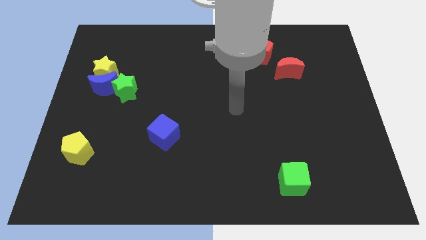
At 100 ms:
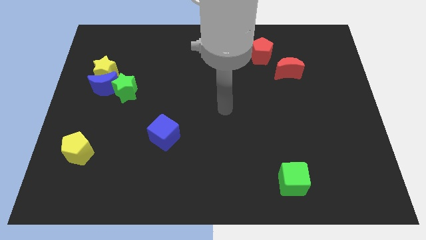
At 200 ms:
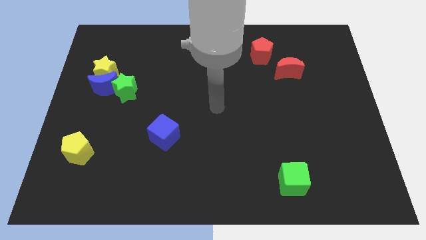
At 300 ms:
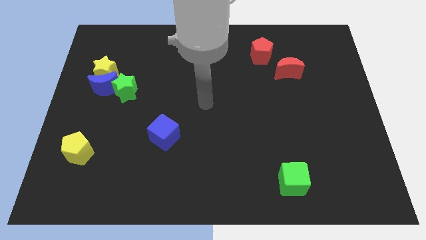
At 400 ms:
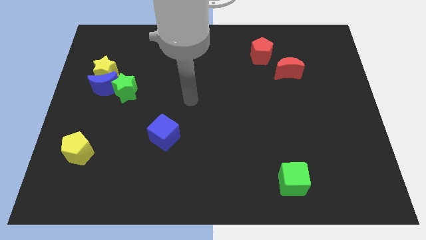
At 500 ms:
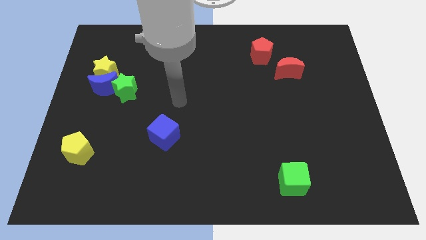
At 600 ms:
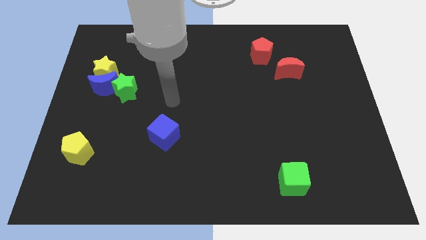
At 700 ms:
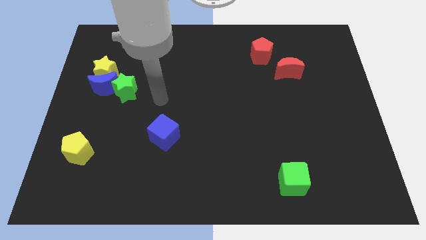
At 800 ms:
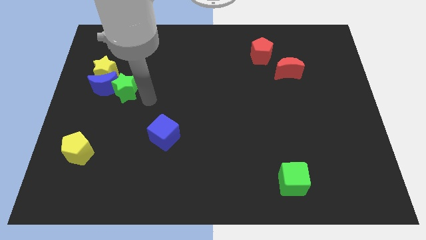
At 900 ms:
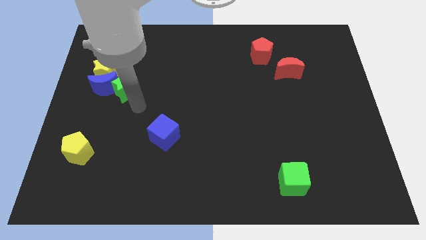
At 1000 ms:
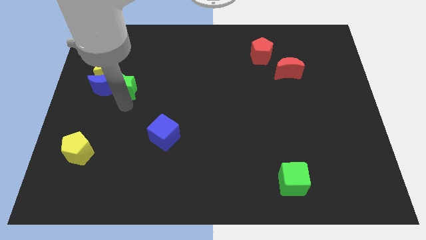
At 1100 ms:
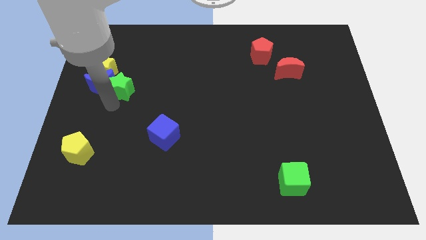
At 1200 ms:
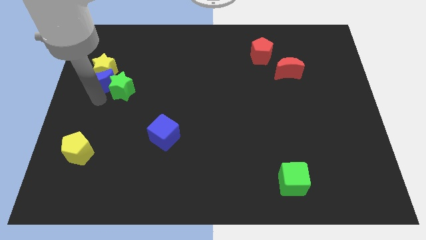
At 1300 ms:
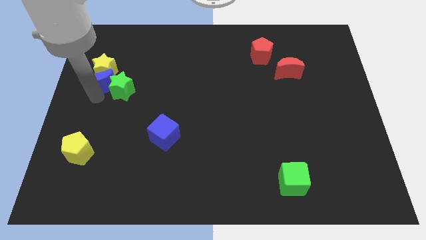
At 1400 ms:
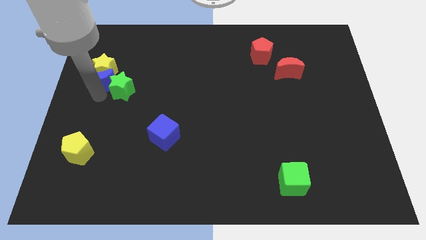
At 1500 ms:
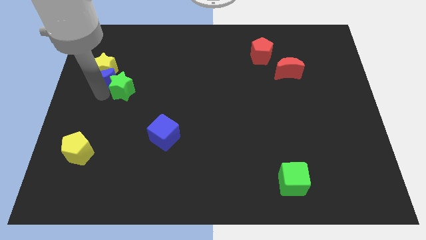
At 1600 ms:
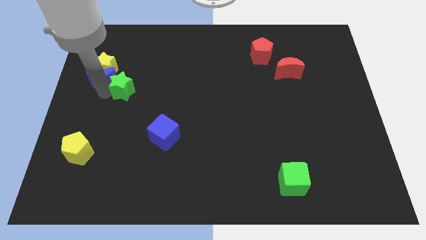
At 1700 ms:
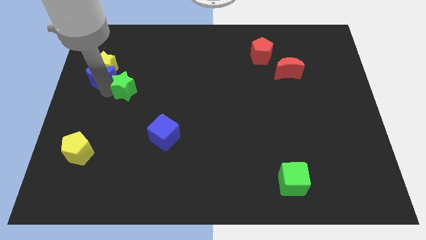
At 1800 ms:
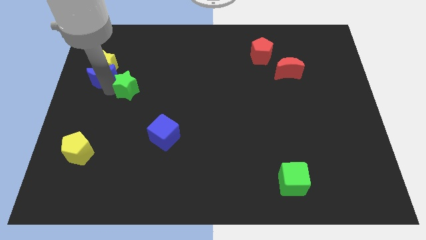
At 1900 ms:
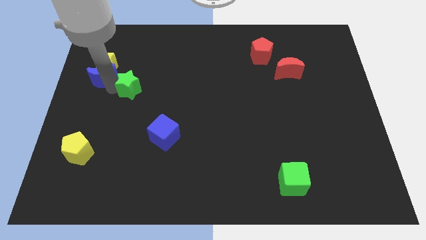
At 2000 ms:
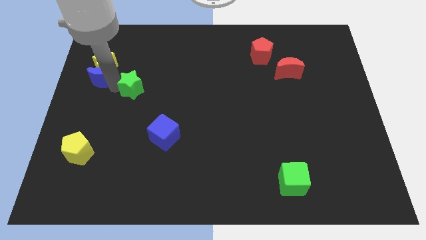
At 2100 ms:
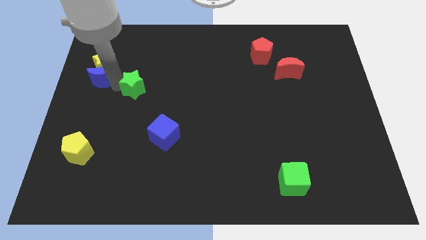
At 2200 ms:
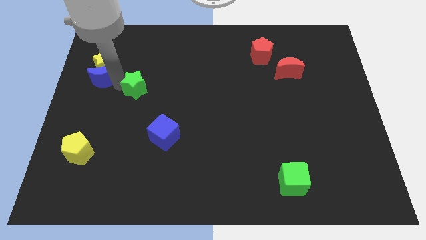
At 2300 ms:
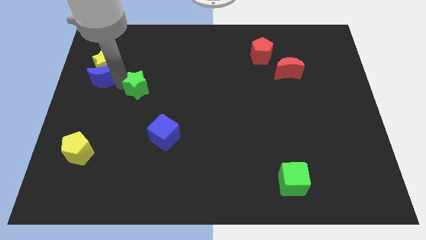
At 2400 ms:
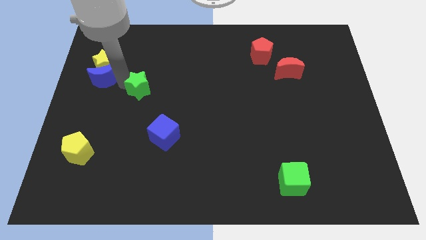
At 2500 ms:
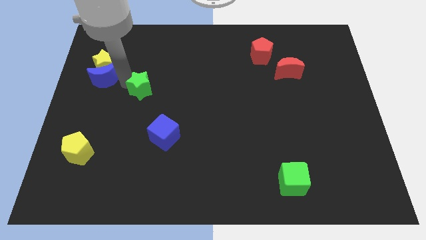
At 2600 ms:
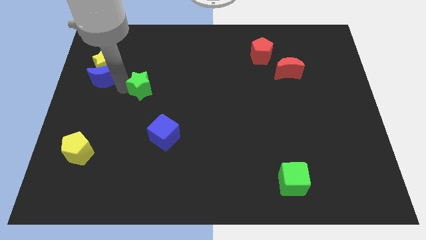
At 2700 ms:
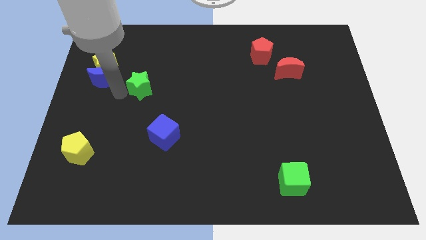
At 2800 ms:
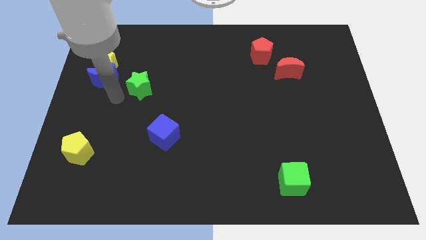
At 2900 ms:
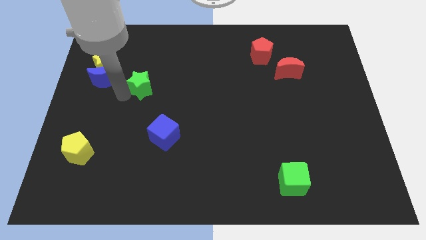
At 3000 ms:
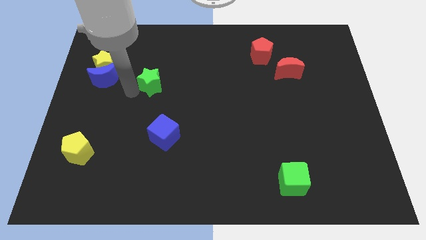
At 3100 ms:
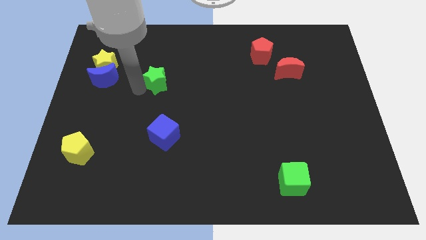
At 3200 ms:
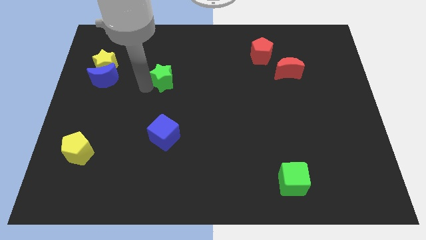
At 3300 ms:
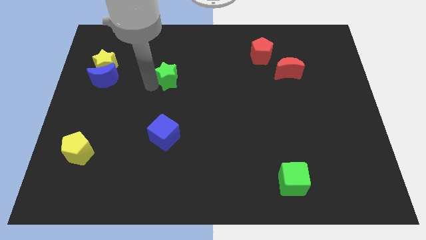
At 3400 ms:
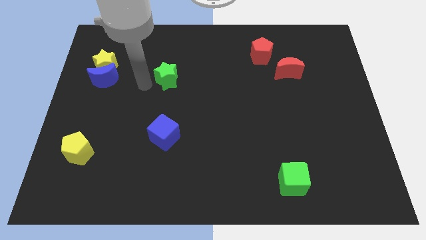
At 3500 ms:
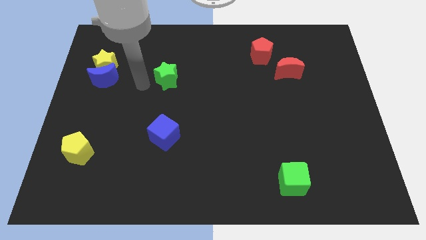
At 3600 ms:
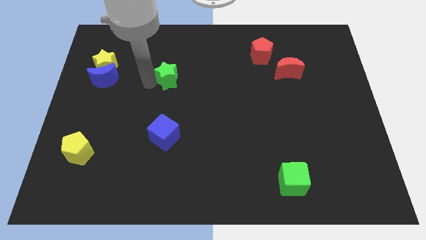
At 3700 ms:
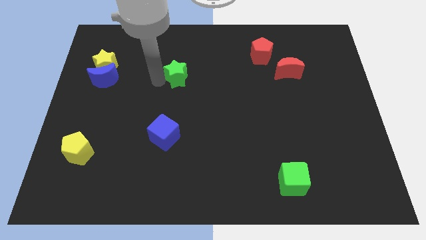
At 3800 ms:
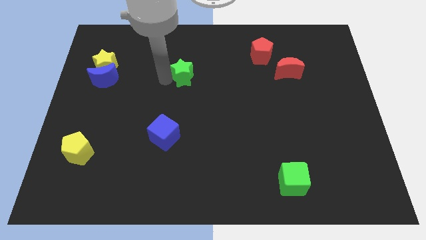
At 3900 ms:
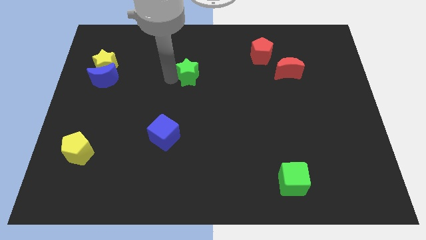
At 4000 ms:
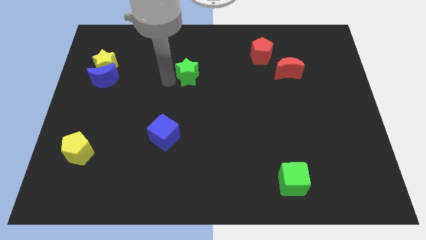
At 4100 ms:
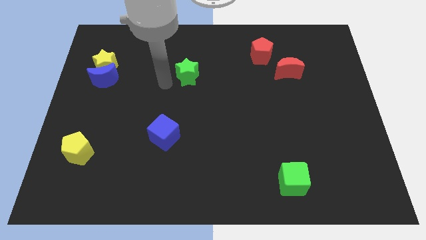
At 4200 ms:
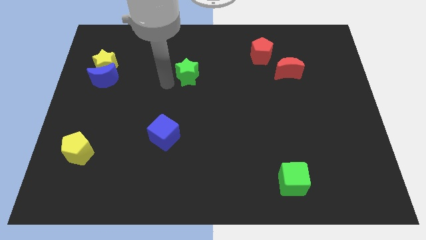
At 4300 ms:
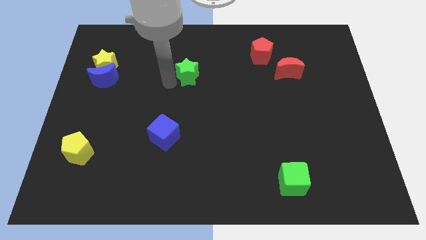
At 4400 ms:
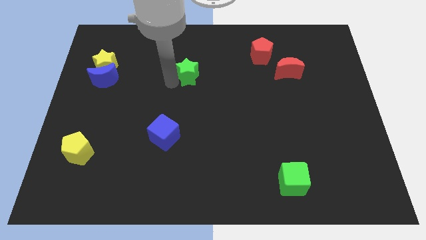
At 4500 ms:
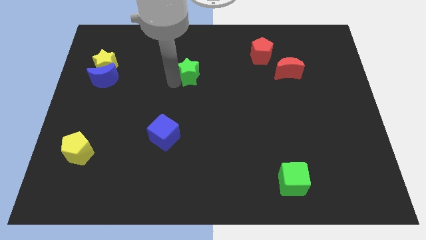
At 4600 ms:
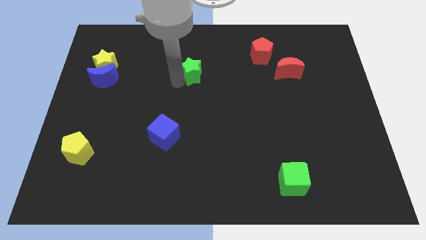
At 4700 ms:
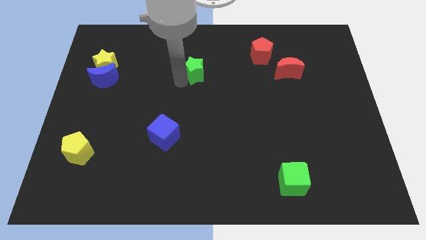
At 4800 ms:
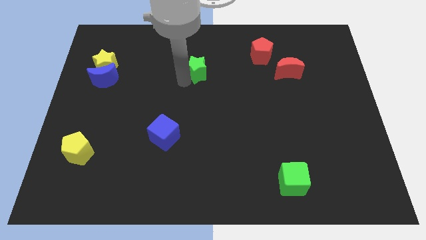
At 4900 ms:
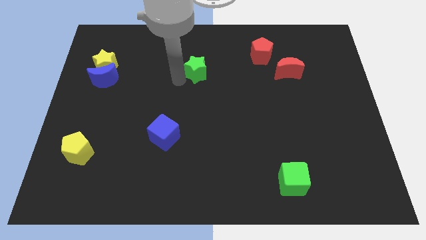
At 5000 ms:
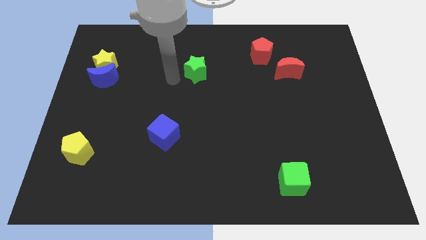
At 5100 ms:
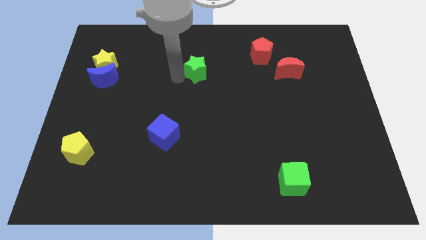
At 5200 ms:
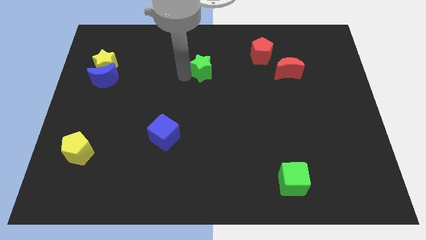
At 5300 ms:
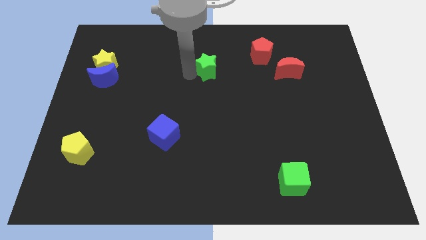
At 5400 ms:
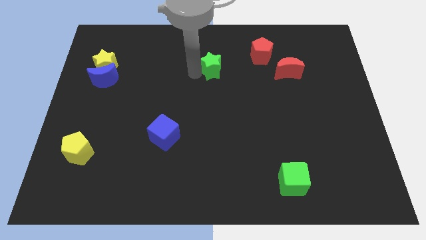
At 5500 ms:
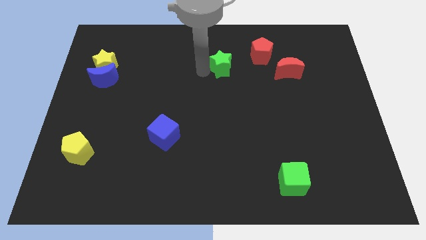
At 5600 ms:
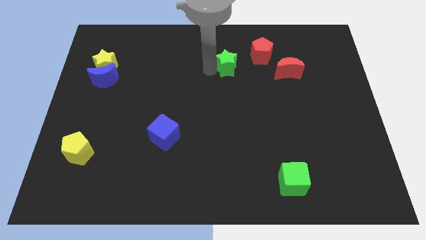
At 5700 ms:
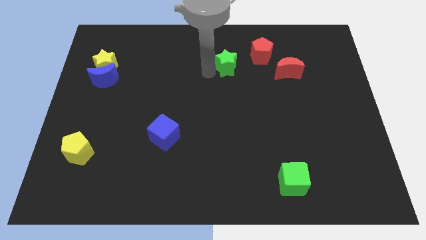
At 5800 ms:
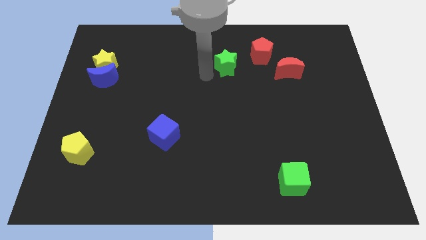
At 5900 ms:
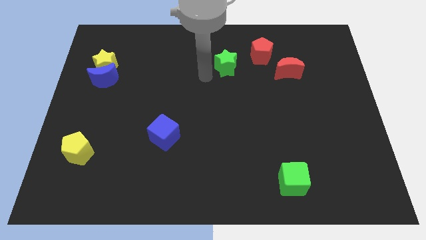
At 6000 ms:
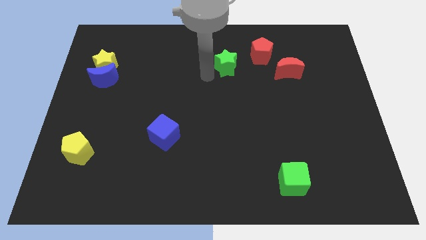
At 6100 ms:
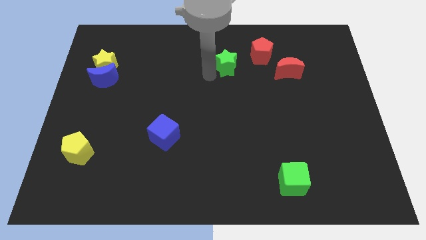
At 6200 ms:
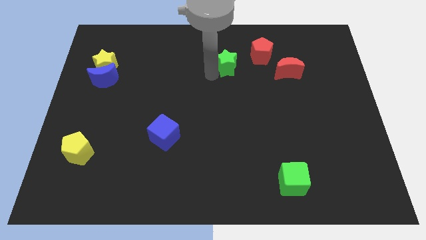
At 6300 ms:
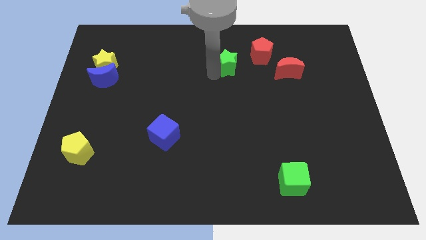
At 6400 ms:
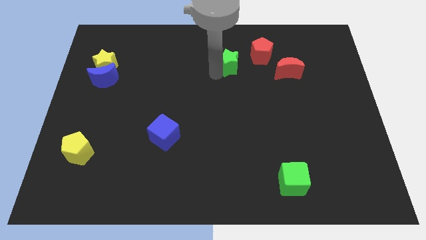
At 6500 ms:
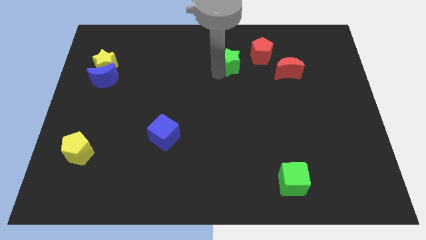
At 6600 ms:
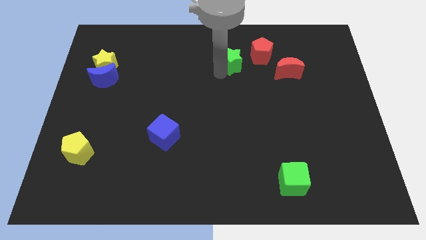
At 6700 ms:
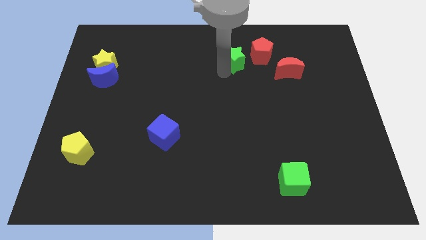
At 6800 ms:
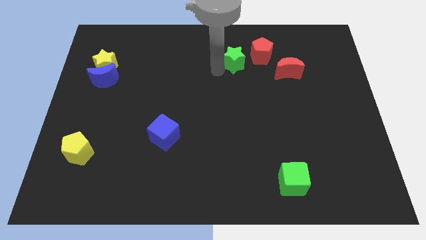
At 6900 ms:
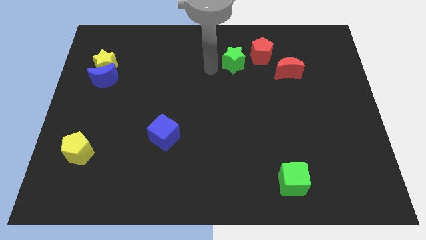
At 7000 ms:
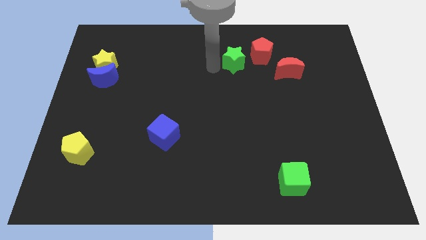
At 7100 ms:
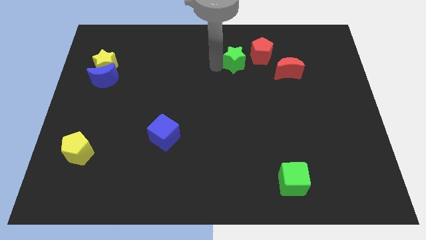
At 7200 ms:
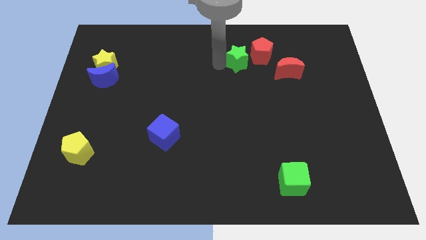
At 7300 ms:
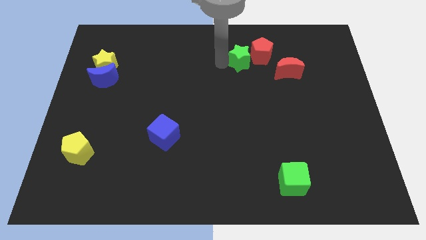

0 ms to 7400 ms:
move the green star close to the red pentagon

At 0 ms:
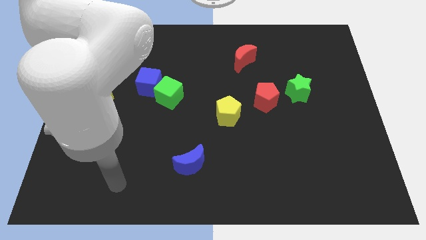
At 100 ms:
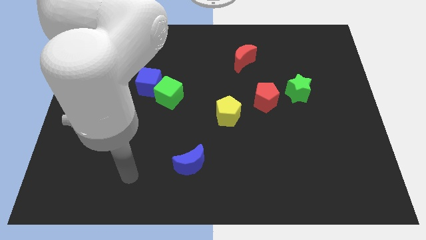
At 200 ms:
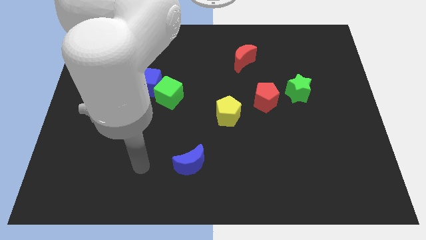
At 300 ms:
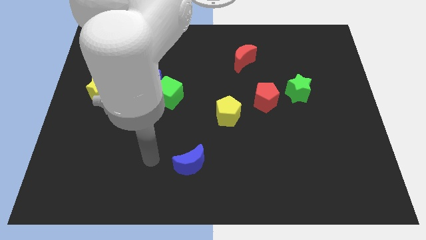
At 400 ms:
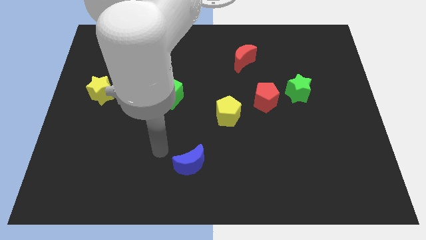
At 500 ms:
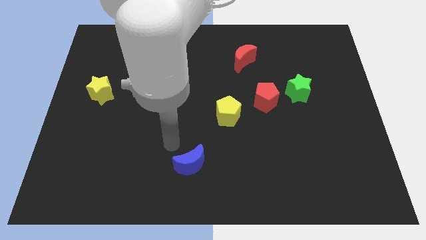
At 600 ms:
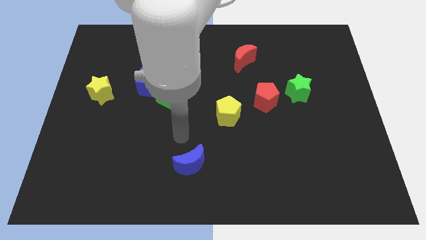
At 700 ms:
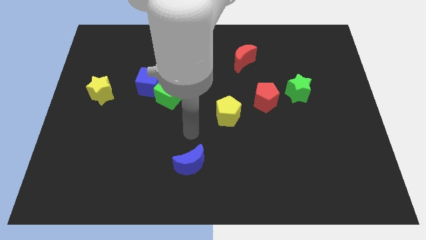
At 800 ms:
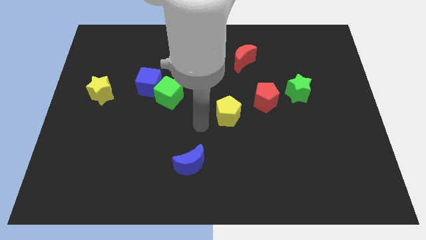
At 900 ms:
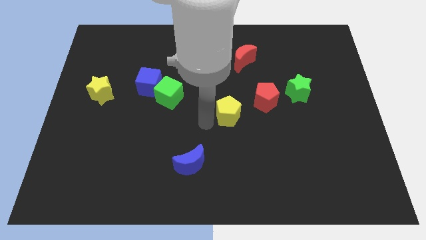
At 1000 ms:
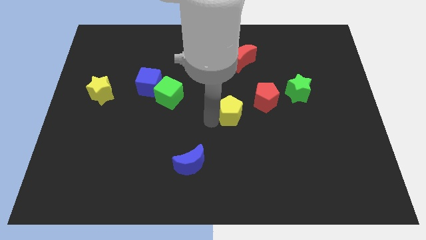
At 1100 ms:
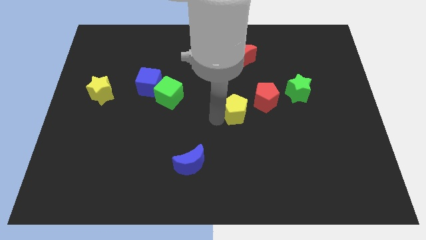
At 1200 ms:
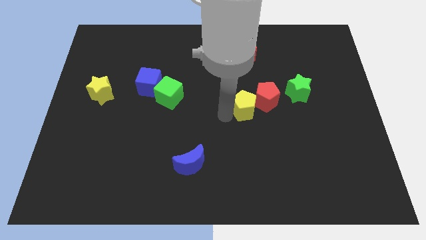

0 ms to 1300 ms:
put the yellow pentagon close to the red pentagon
